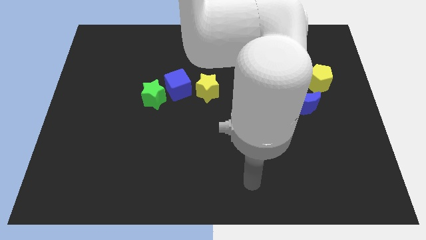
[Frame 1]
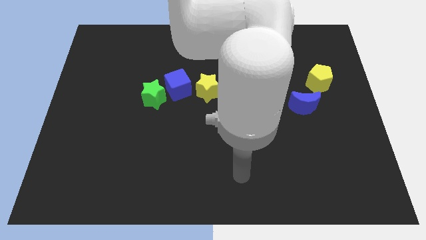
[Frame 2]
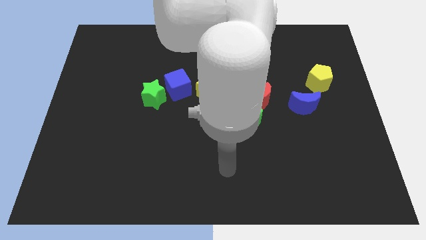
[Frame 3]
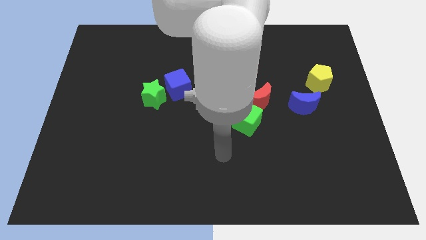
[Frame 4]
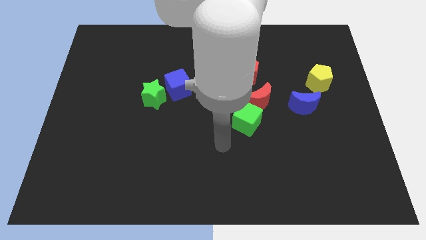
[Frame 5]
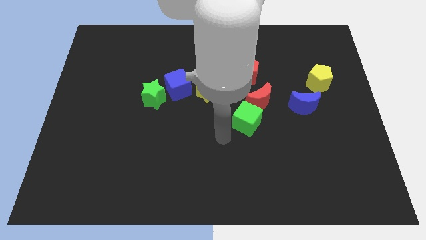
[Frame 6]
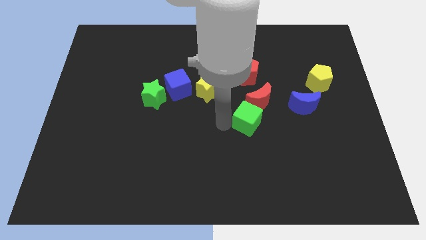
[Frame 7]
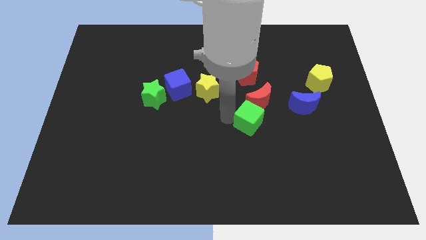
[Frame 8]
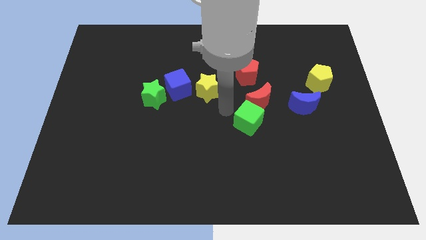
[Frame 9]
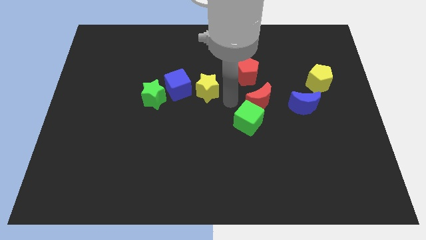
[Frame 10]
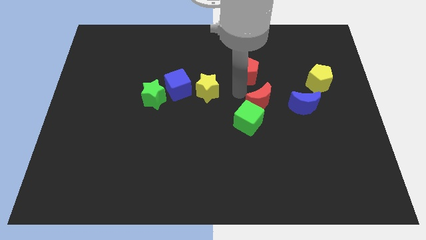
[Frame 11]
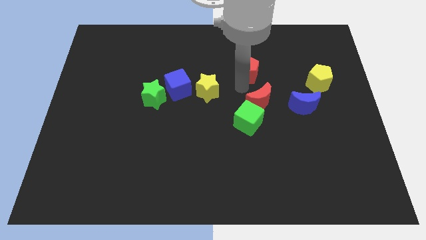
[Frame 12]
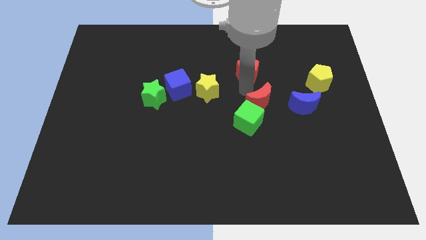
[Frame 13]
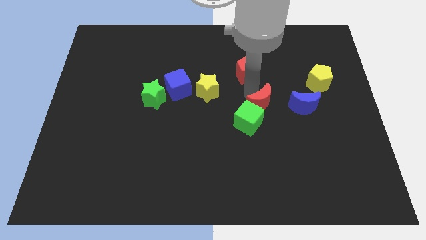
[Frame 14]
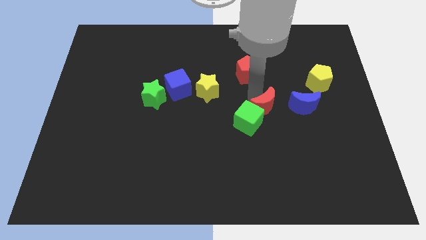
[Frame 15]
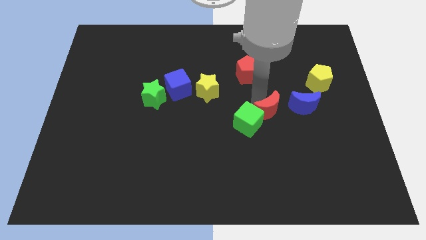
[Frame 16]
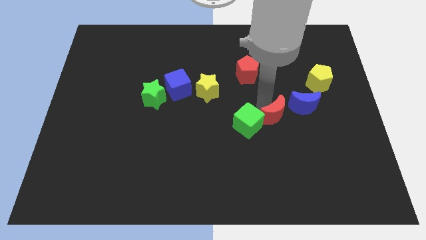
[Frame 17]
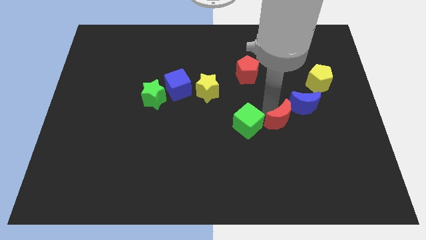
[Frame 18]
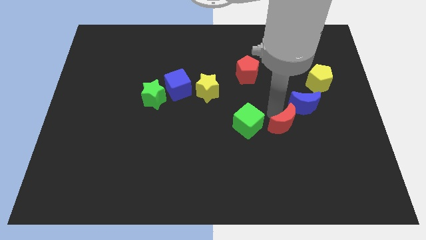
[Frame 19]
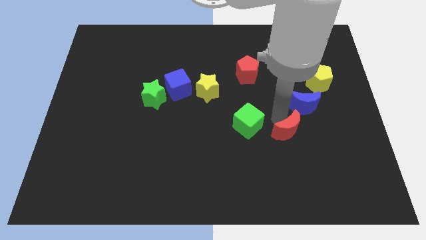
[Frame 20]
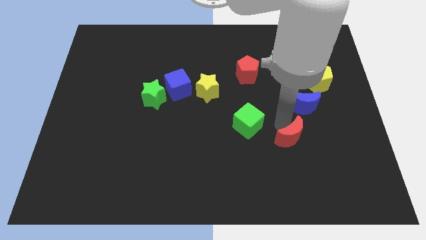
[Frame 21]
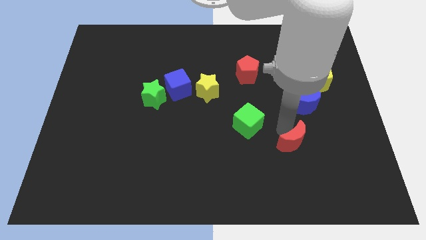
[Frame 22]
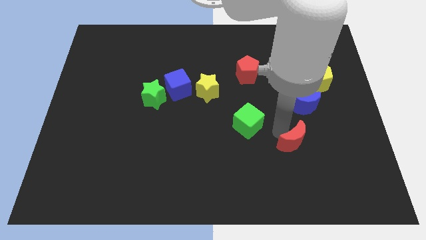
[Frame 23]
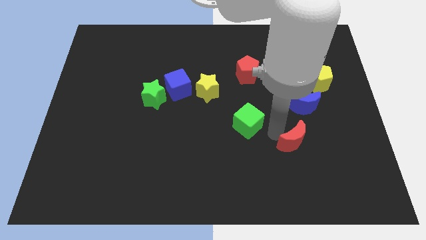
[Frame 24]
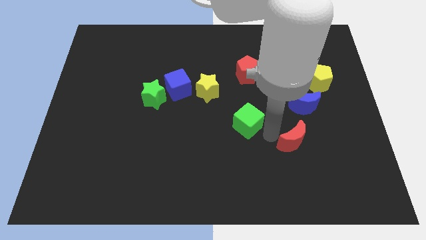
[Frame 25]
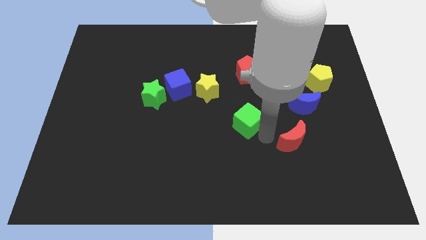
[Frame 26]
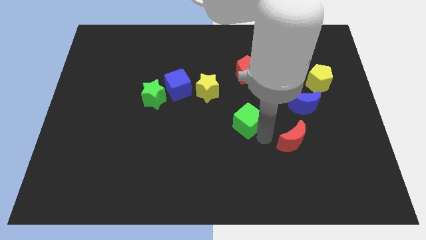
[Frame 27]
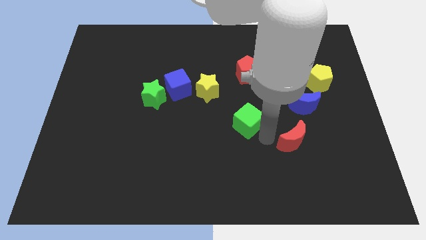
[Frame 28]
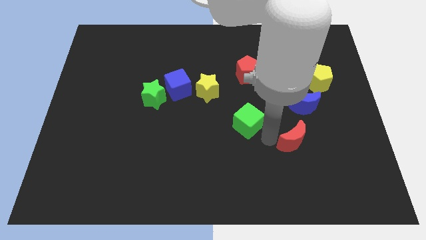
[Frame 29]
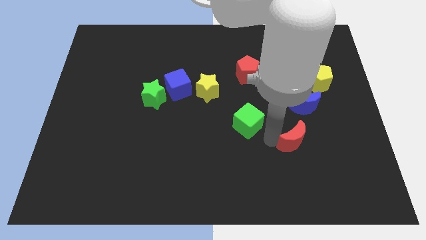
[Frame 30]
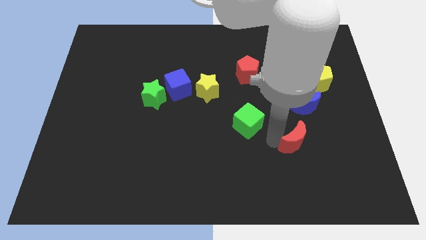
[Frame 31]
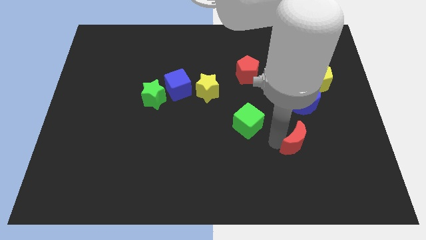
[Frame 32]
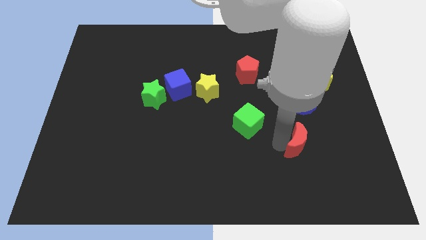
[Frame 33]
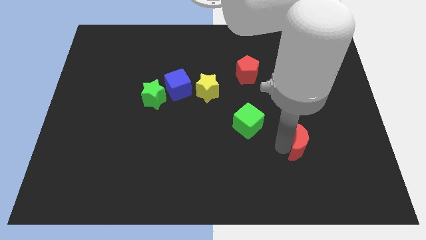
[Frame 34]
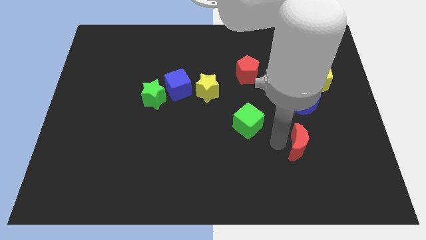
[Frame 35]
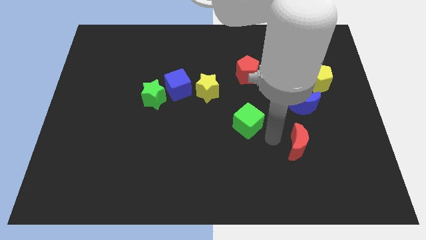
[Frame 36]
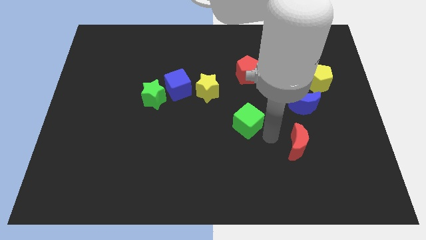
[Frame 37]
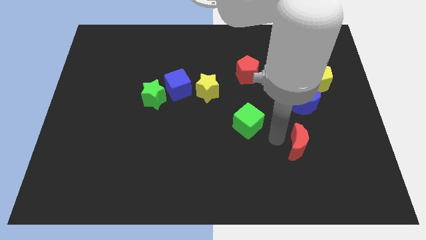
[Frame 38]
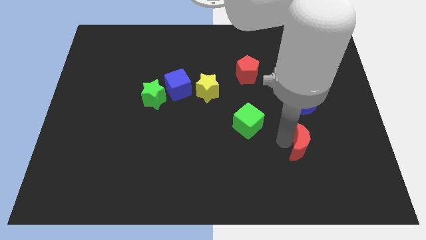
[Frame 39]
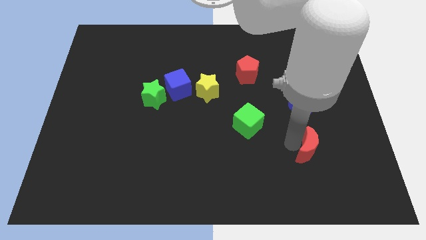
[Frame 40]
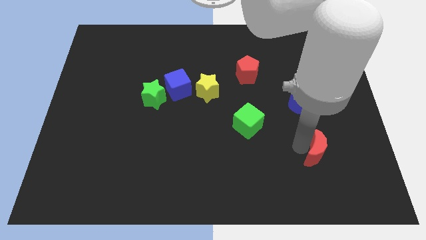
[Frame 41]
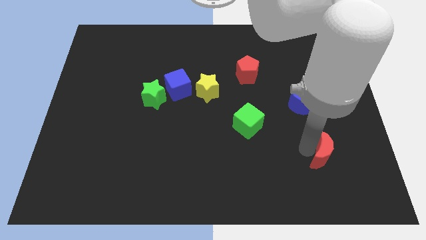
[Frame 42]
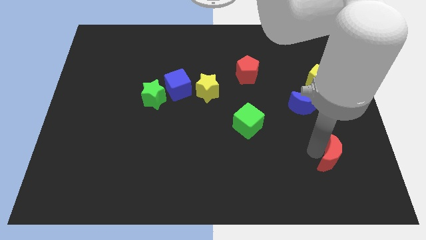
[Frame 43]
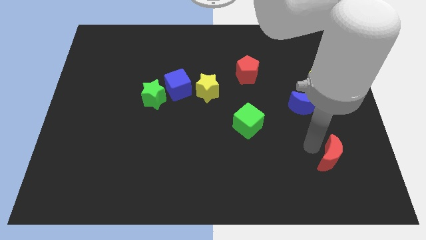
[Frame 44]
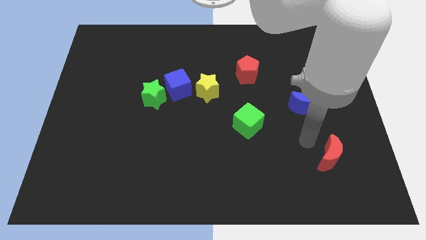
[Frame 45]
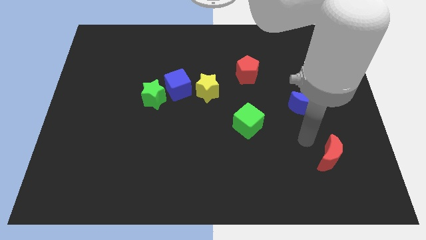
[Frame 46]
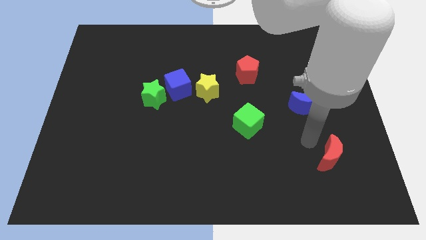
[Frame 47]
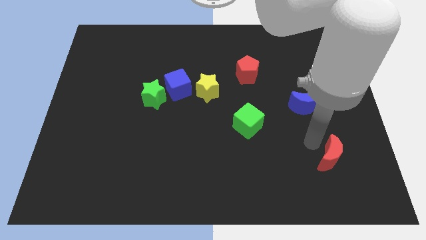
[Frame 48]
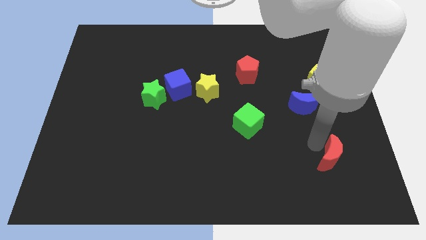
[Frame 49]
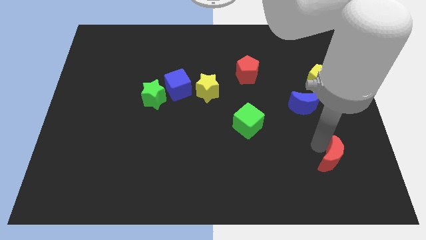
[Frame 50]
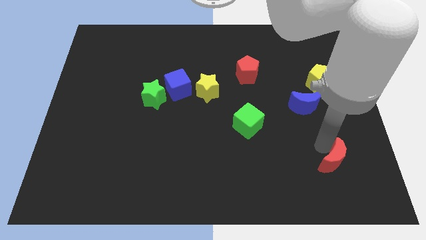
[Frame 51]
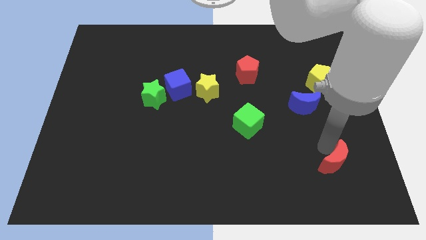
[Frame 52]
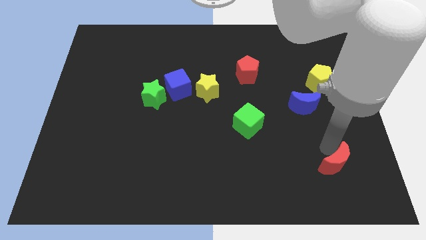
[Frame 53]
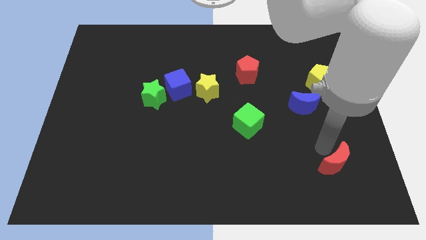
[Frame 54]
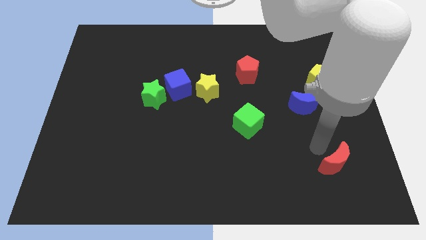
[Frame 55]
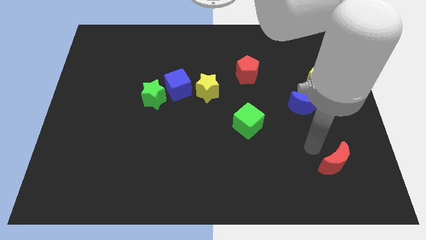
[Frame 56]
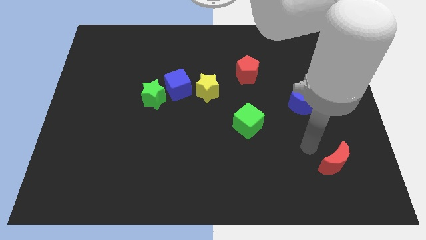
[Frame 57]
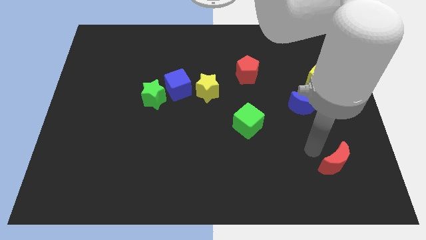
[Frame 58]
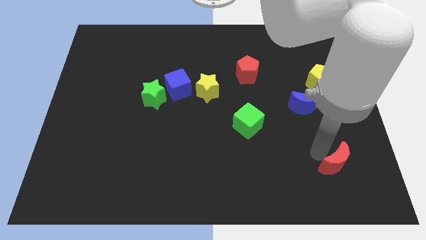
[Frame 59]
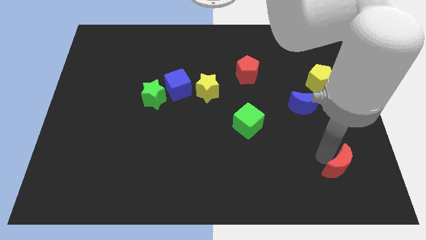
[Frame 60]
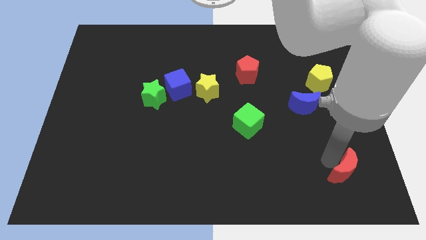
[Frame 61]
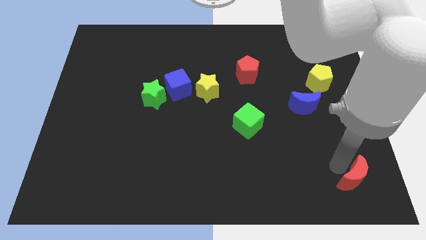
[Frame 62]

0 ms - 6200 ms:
slide the red moon to the bottom right corner
